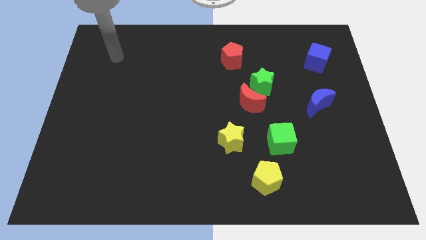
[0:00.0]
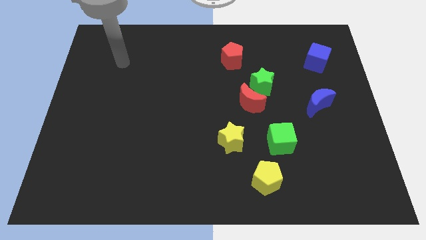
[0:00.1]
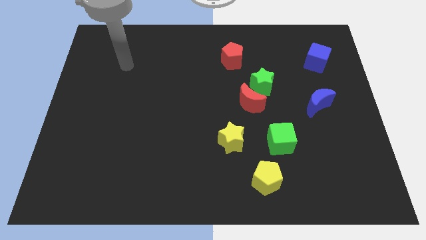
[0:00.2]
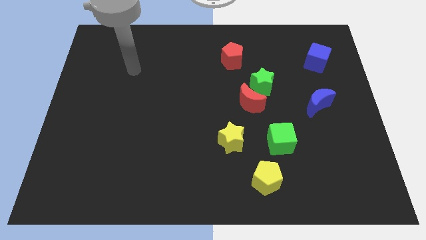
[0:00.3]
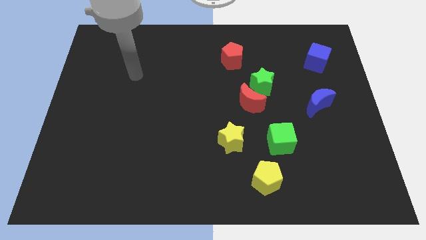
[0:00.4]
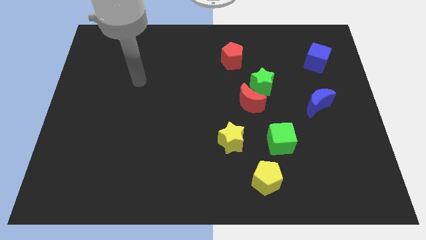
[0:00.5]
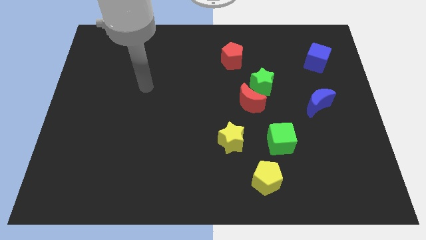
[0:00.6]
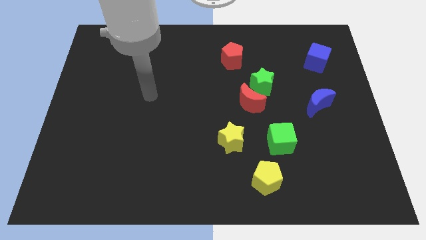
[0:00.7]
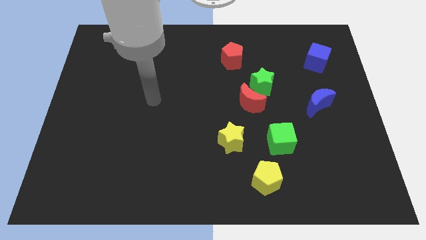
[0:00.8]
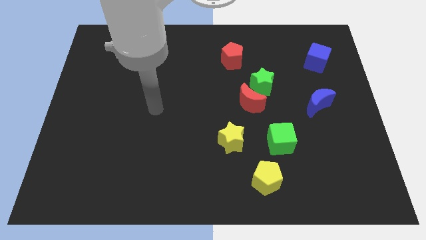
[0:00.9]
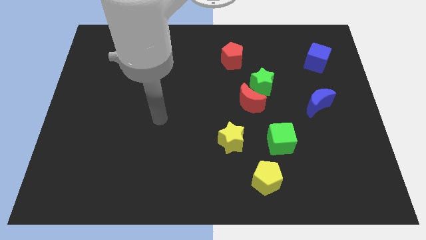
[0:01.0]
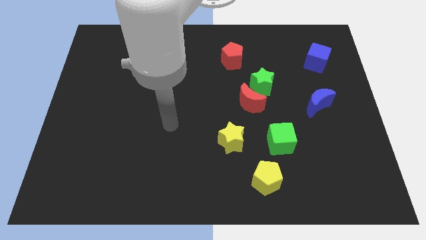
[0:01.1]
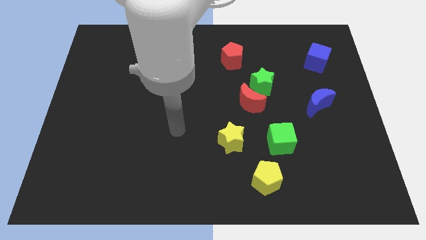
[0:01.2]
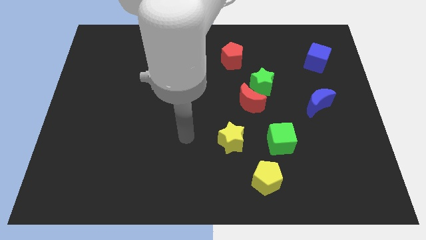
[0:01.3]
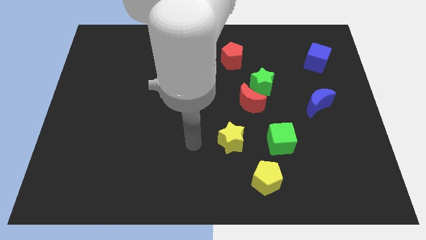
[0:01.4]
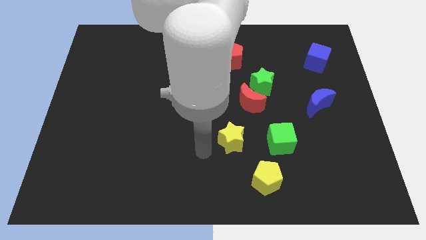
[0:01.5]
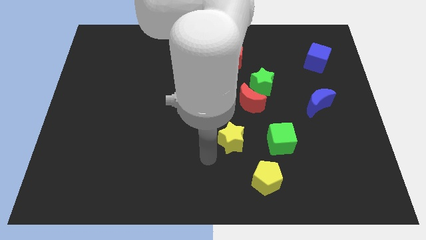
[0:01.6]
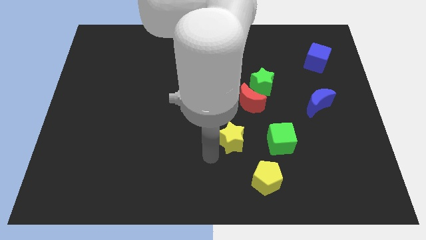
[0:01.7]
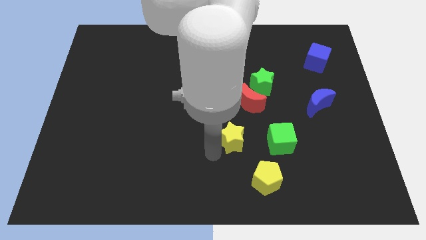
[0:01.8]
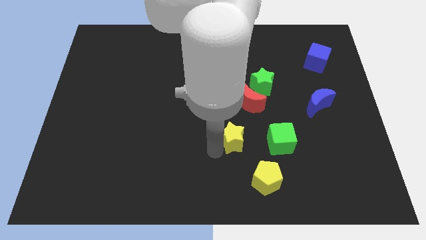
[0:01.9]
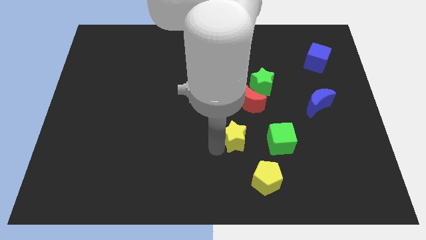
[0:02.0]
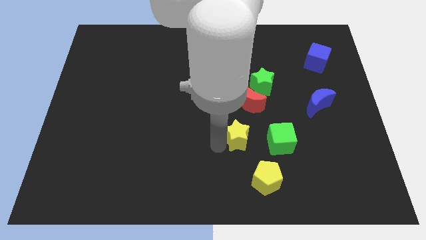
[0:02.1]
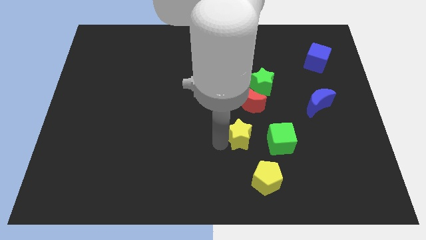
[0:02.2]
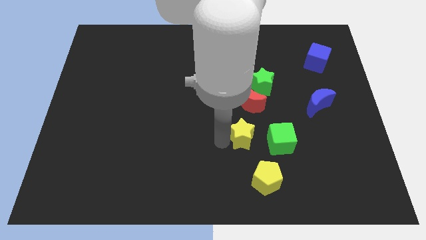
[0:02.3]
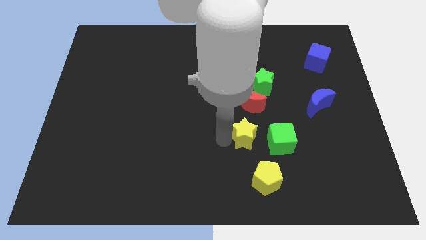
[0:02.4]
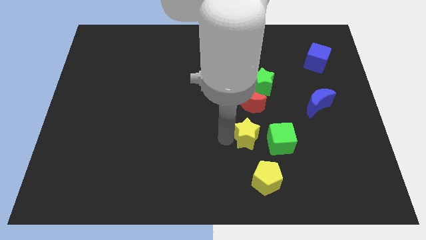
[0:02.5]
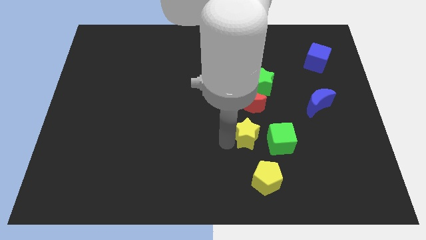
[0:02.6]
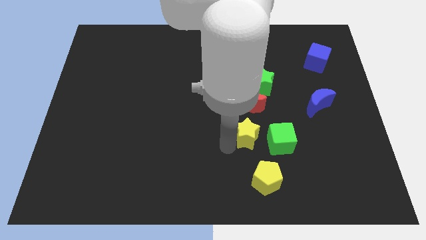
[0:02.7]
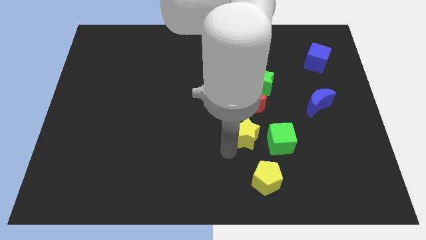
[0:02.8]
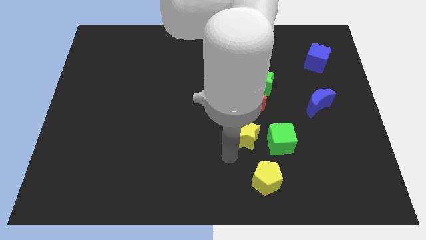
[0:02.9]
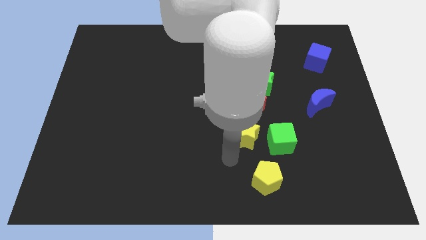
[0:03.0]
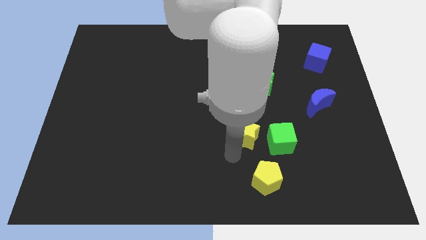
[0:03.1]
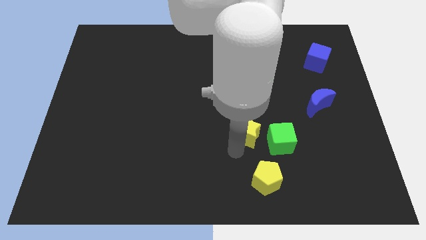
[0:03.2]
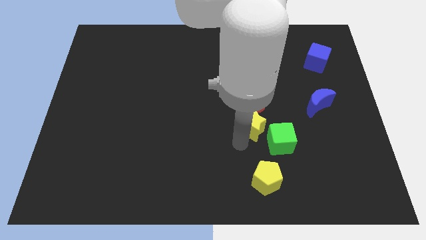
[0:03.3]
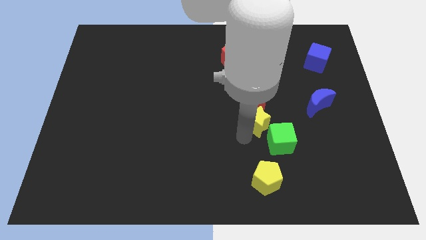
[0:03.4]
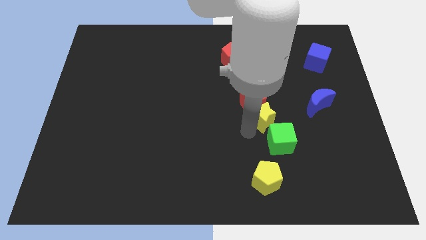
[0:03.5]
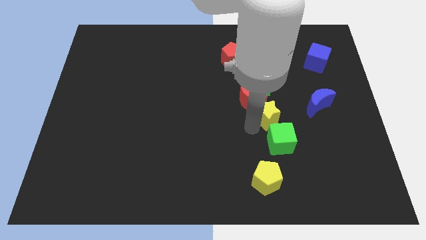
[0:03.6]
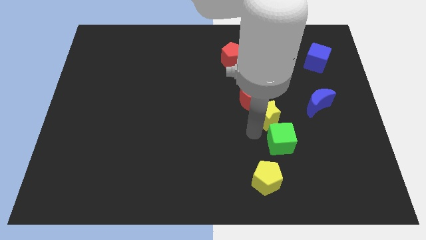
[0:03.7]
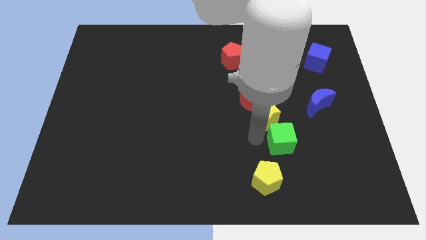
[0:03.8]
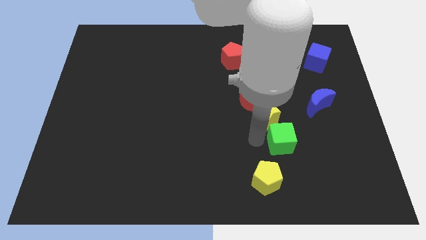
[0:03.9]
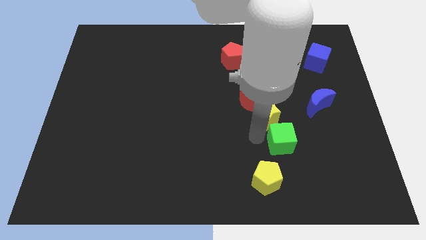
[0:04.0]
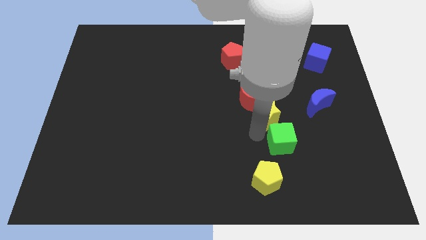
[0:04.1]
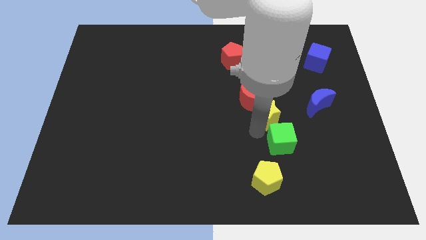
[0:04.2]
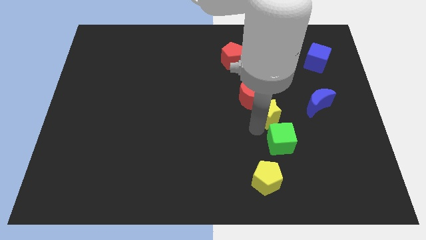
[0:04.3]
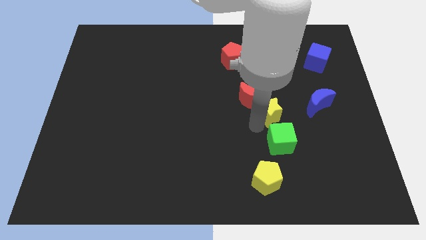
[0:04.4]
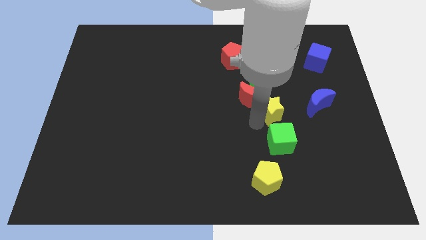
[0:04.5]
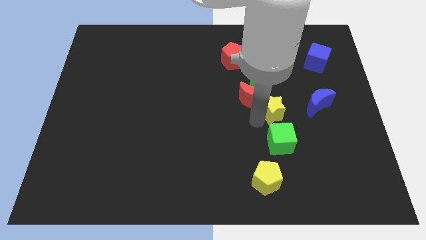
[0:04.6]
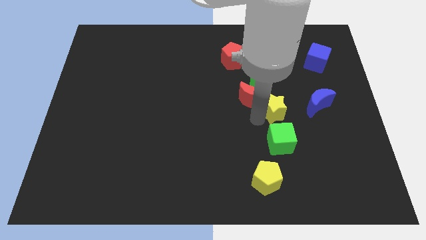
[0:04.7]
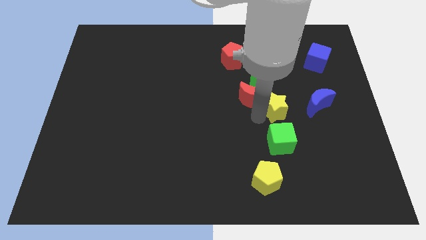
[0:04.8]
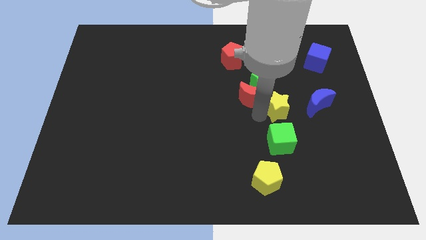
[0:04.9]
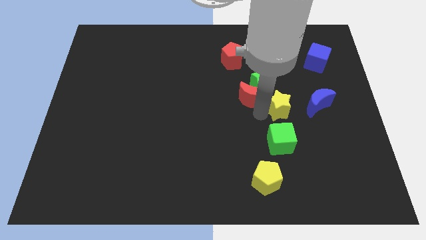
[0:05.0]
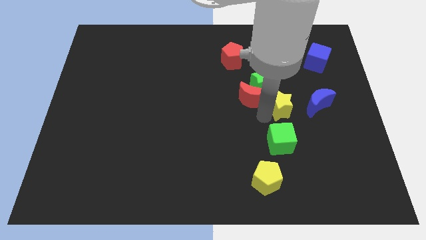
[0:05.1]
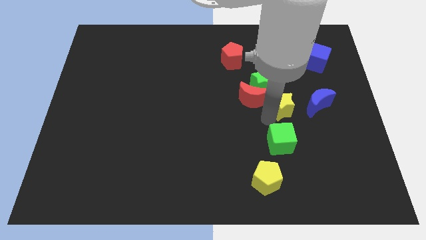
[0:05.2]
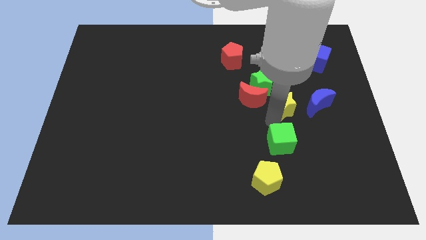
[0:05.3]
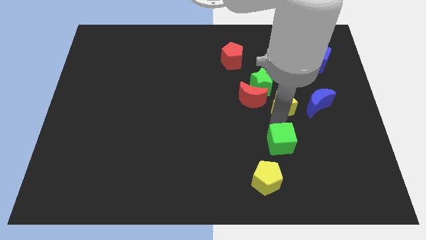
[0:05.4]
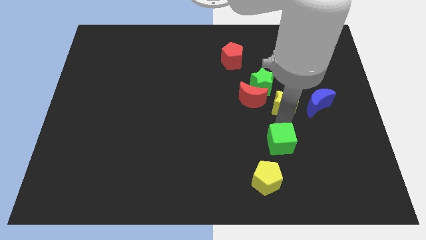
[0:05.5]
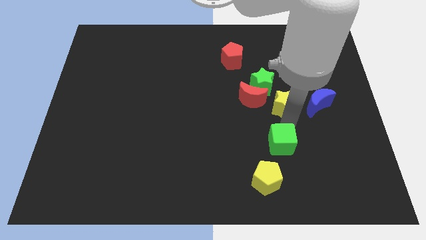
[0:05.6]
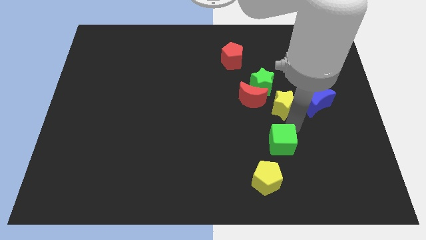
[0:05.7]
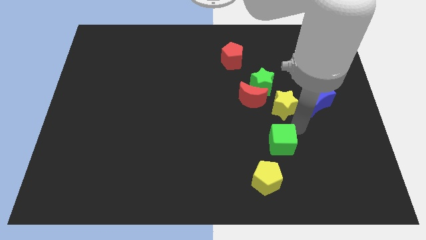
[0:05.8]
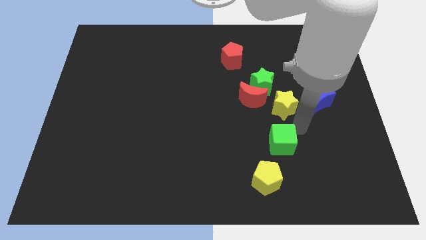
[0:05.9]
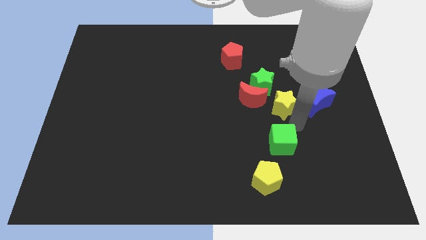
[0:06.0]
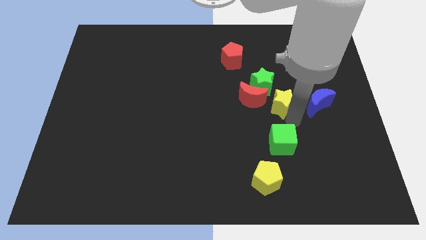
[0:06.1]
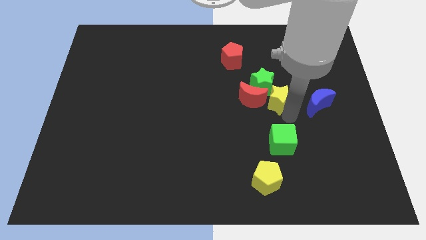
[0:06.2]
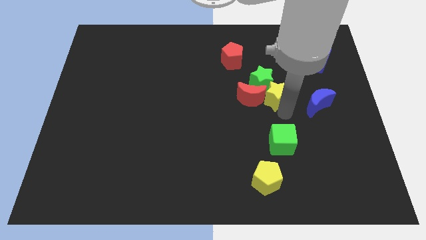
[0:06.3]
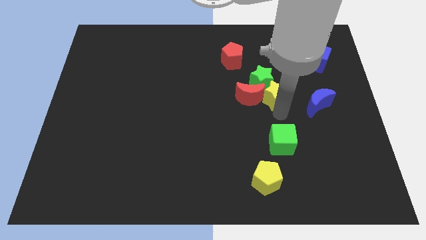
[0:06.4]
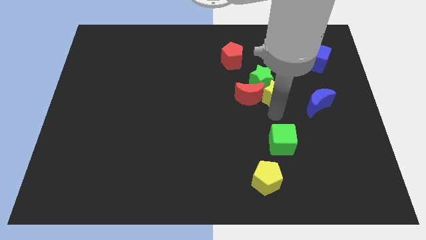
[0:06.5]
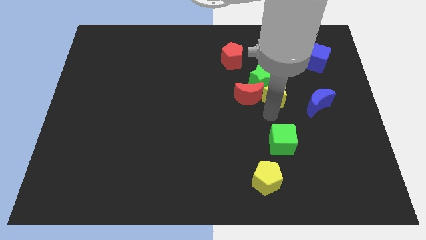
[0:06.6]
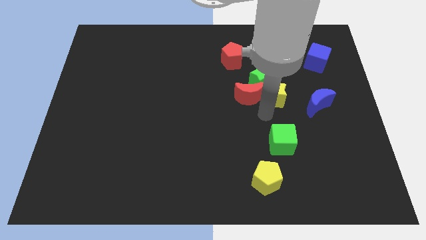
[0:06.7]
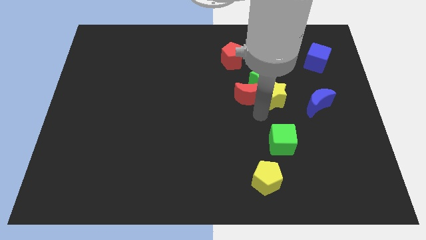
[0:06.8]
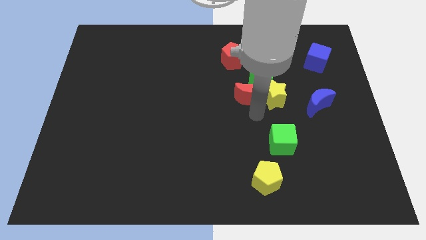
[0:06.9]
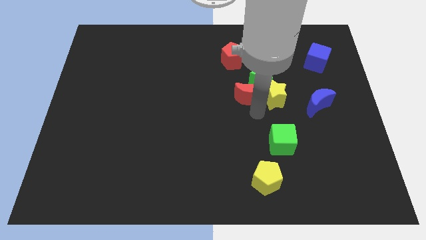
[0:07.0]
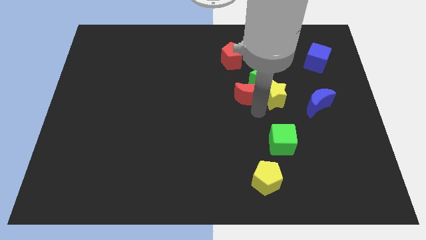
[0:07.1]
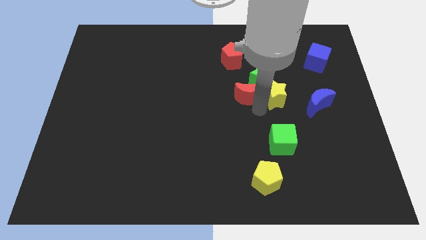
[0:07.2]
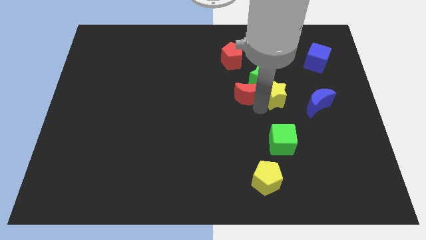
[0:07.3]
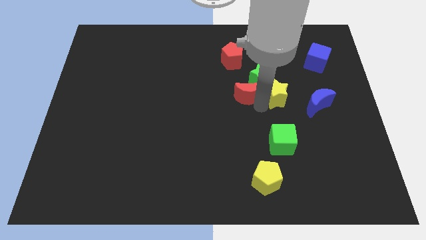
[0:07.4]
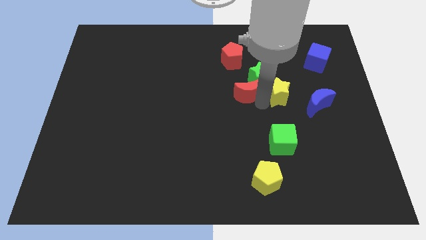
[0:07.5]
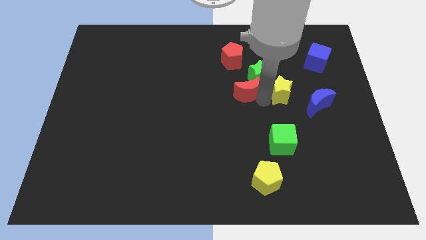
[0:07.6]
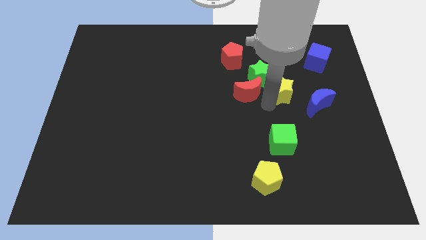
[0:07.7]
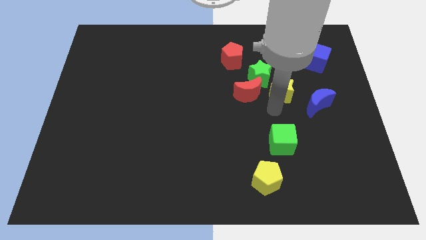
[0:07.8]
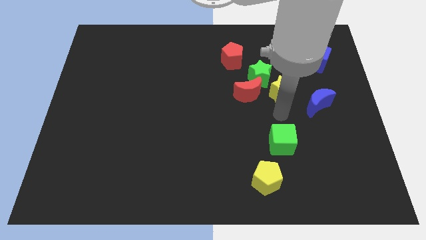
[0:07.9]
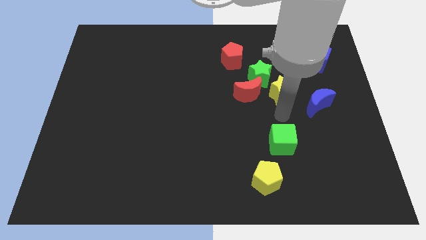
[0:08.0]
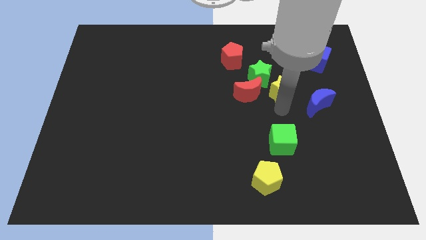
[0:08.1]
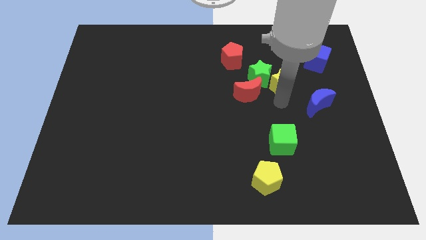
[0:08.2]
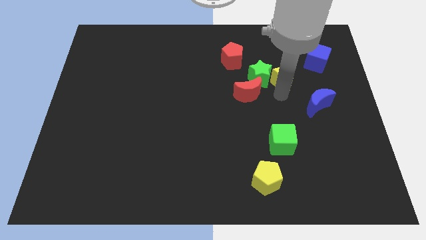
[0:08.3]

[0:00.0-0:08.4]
slide the yellow star to the top right side of the green star

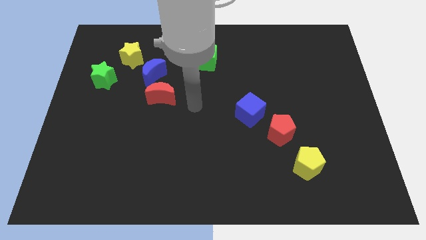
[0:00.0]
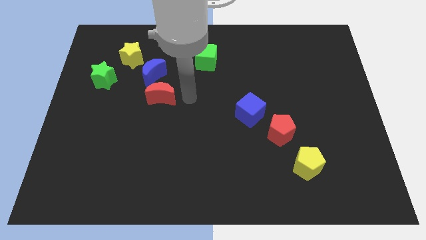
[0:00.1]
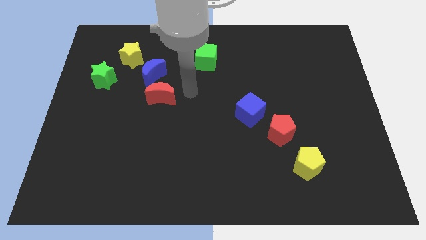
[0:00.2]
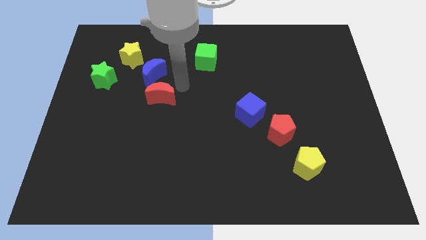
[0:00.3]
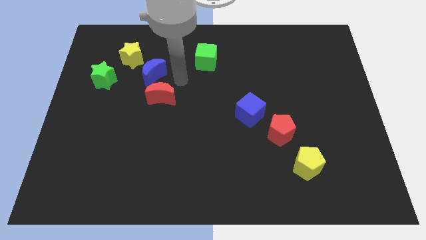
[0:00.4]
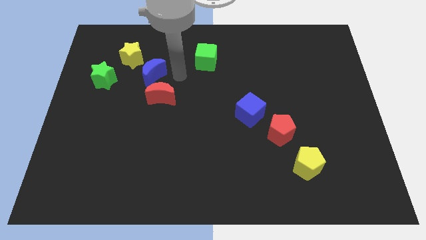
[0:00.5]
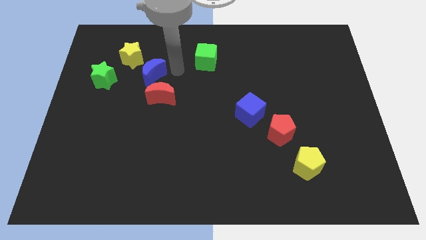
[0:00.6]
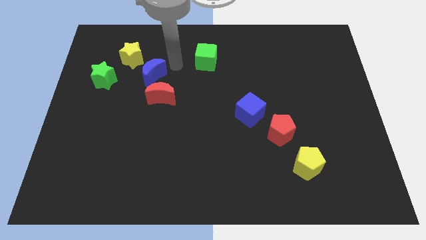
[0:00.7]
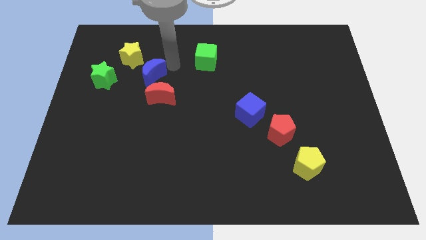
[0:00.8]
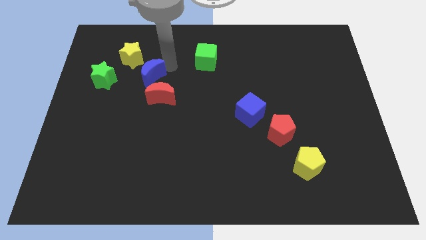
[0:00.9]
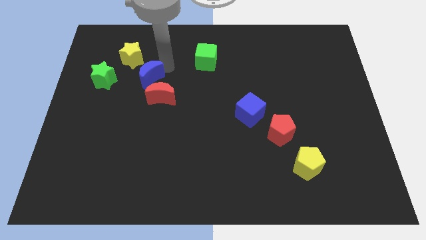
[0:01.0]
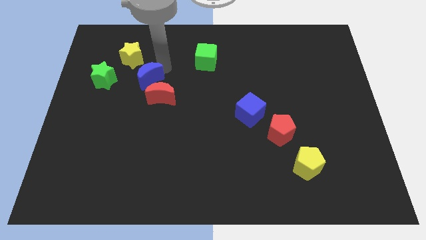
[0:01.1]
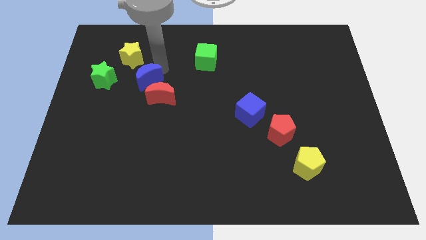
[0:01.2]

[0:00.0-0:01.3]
push the blue moon below the yellow star
